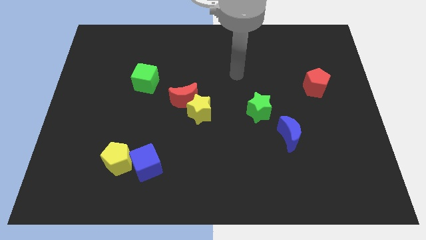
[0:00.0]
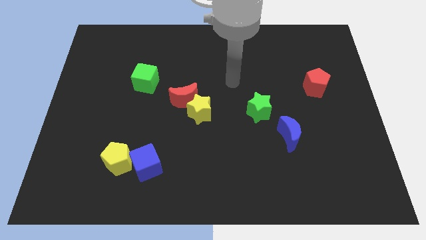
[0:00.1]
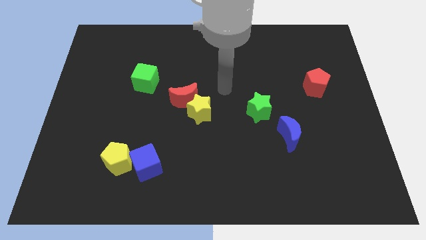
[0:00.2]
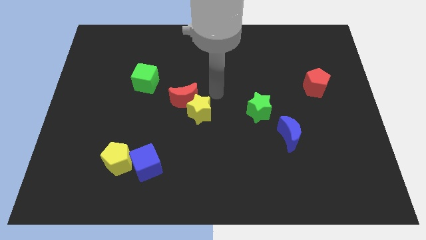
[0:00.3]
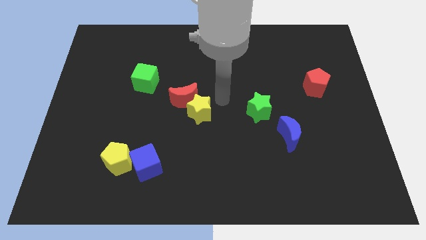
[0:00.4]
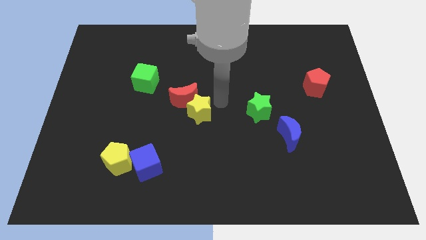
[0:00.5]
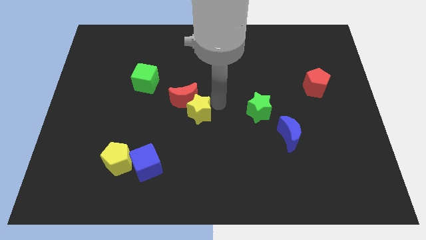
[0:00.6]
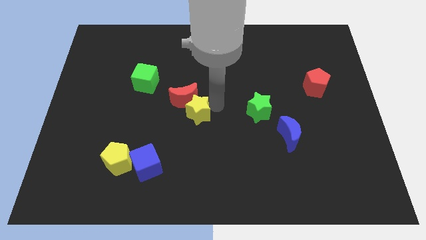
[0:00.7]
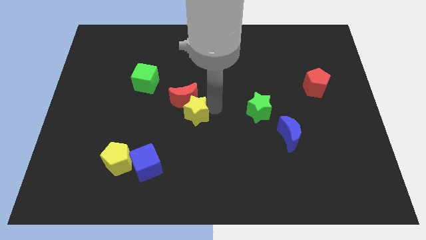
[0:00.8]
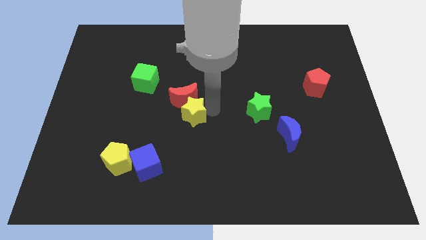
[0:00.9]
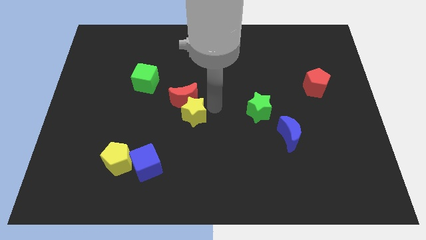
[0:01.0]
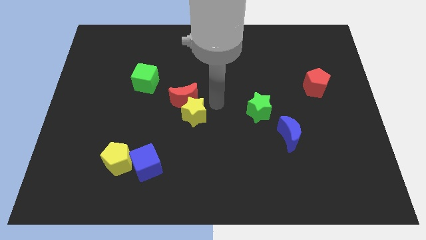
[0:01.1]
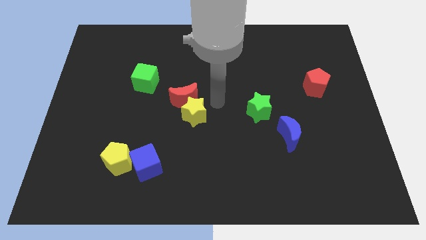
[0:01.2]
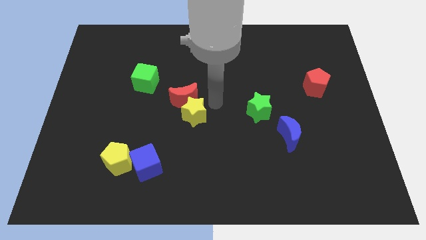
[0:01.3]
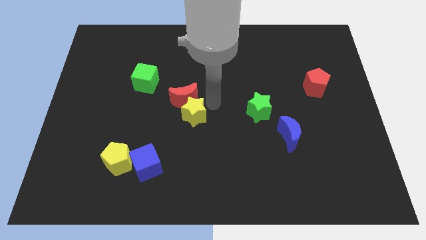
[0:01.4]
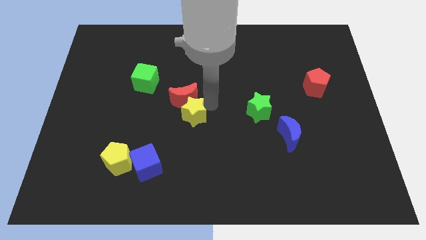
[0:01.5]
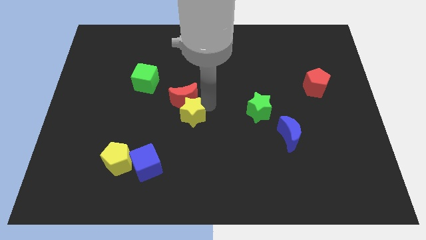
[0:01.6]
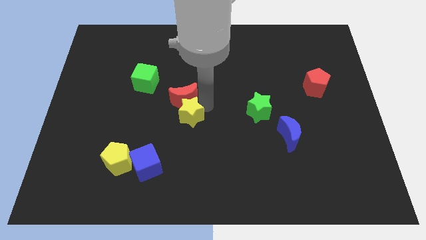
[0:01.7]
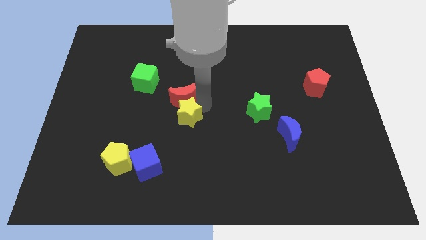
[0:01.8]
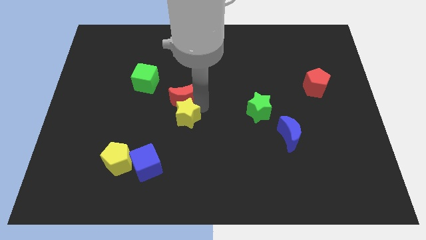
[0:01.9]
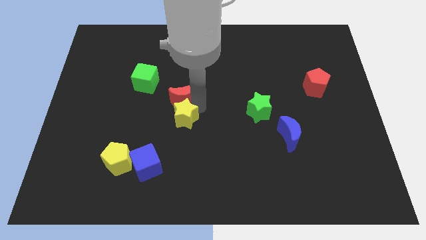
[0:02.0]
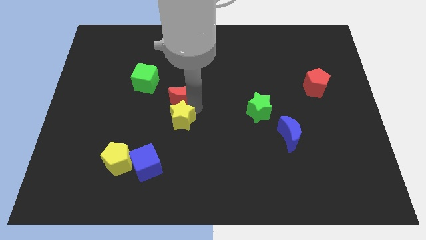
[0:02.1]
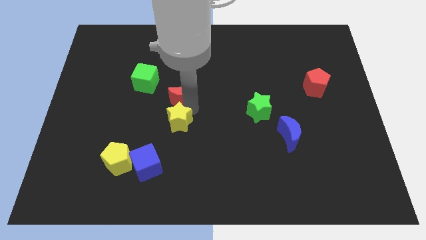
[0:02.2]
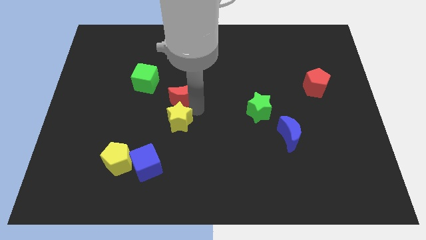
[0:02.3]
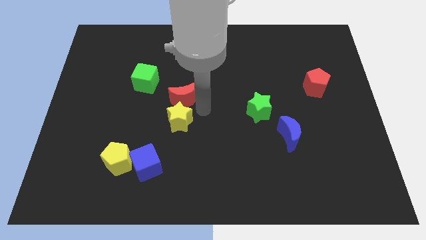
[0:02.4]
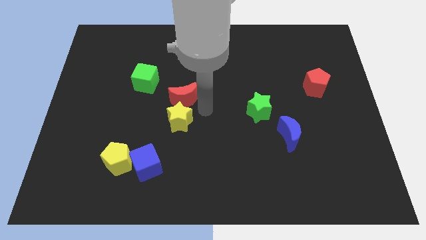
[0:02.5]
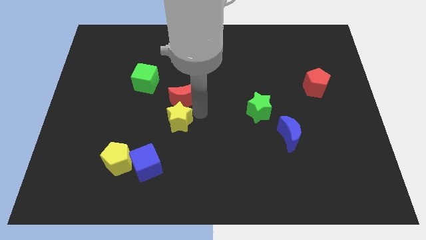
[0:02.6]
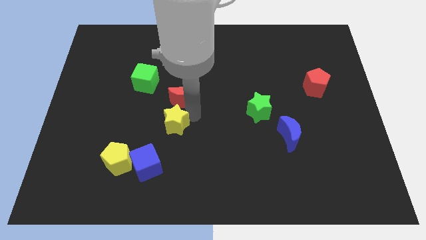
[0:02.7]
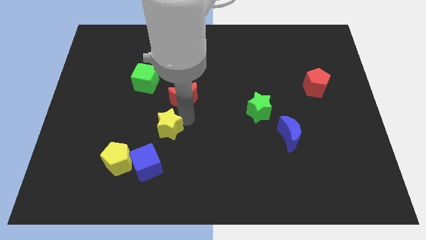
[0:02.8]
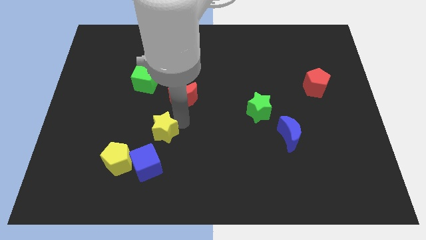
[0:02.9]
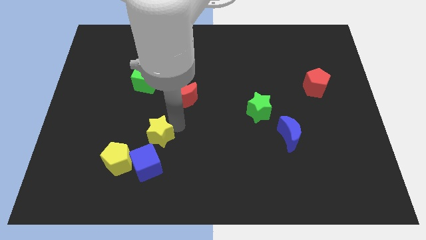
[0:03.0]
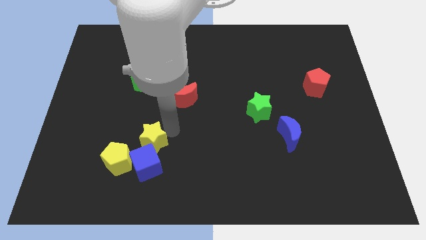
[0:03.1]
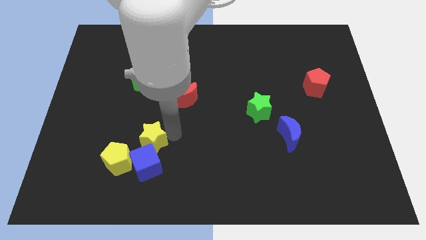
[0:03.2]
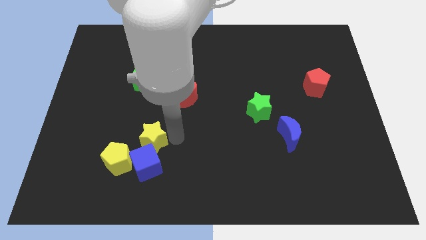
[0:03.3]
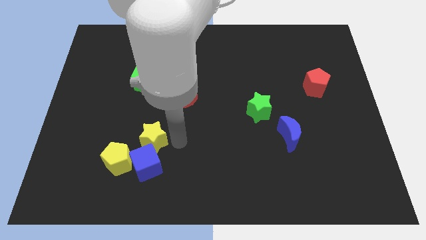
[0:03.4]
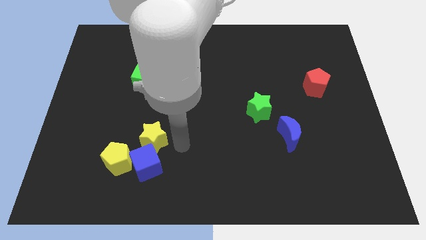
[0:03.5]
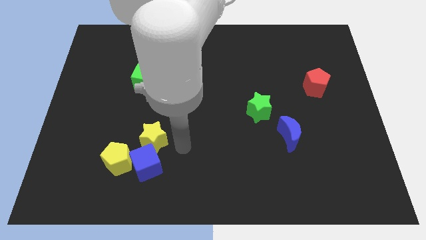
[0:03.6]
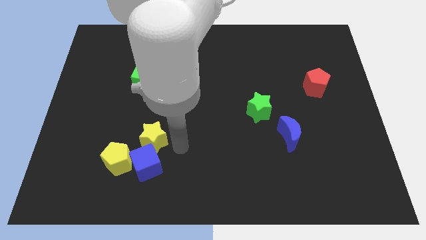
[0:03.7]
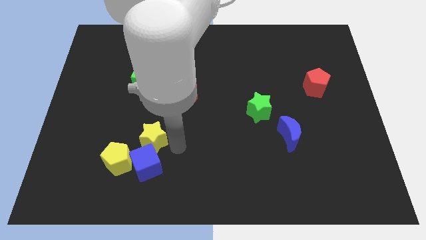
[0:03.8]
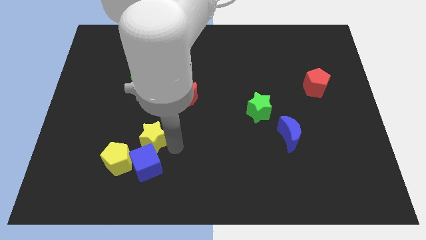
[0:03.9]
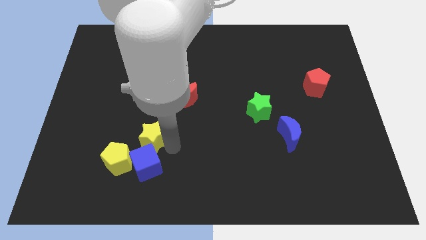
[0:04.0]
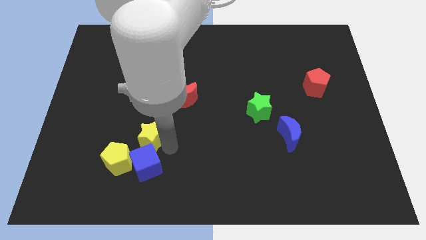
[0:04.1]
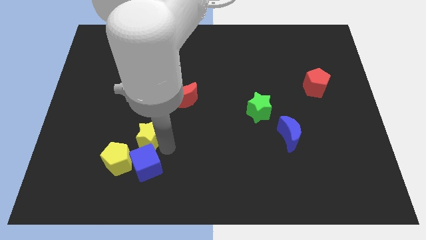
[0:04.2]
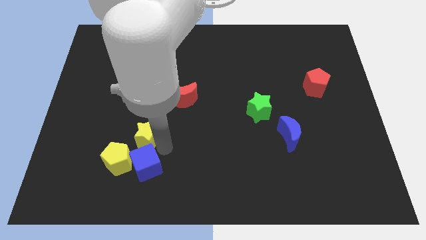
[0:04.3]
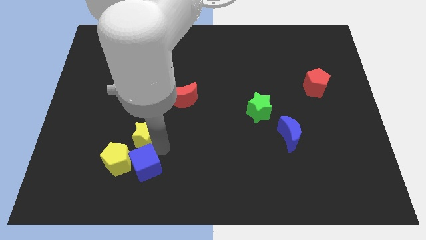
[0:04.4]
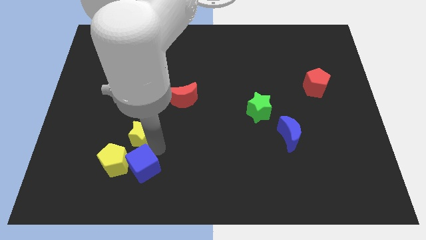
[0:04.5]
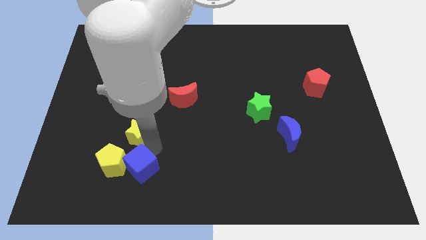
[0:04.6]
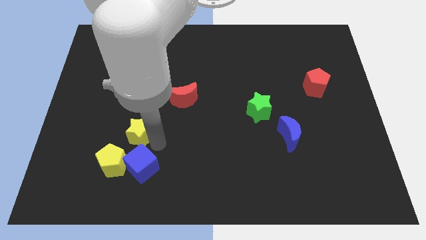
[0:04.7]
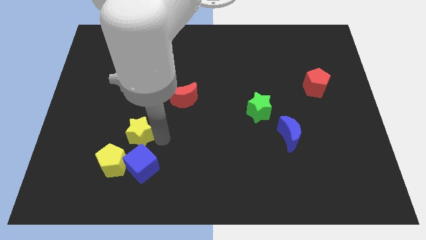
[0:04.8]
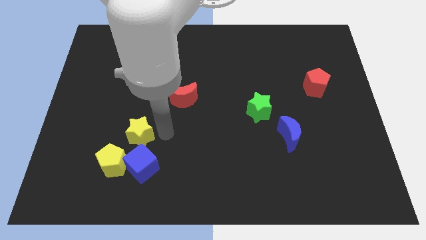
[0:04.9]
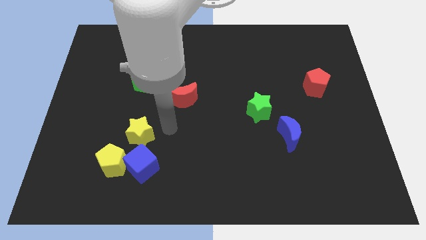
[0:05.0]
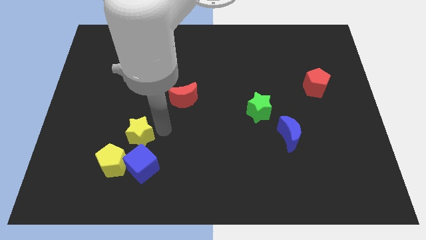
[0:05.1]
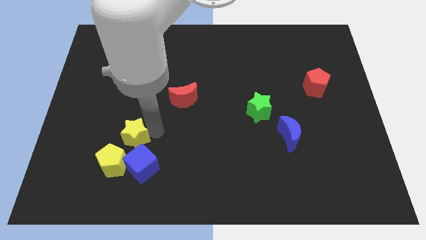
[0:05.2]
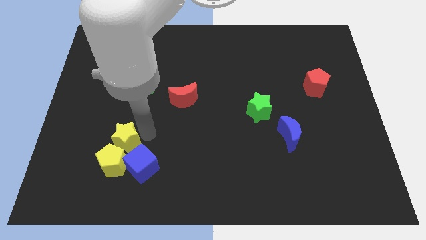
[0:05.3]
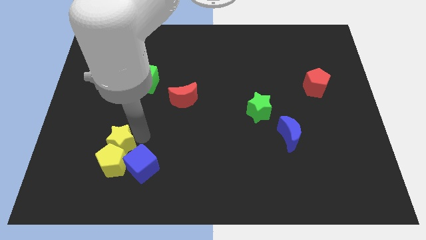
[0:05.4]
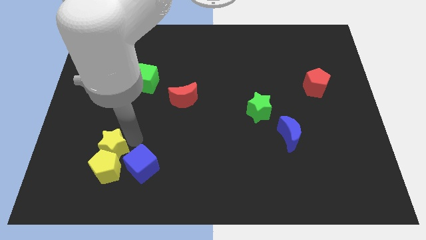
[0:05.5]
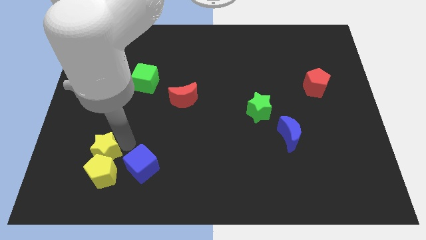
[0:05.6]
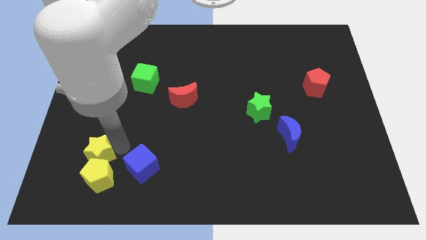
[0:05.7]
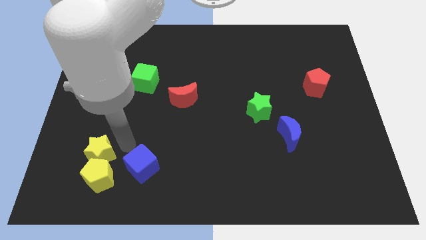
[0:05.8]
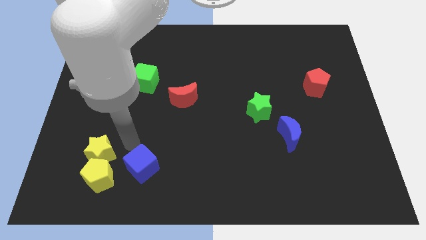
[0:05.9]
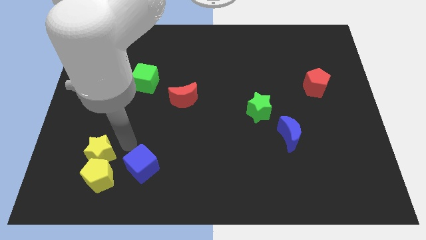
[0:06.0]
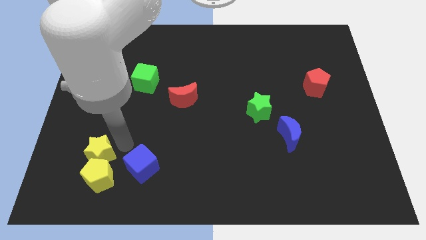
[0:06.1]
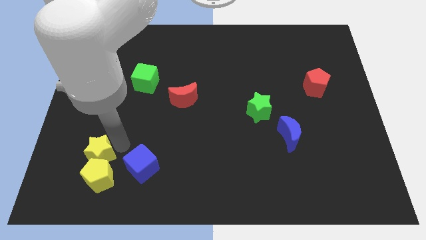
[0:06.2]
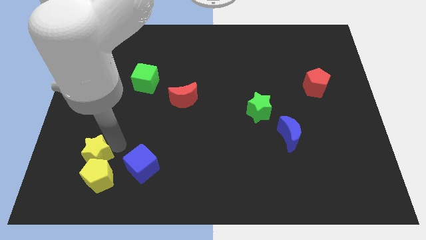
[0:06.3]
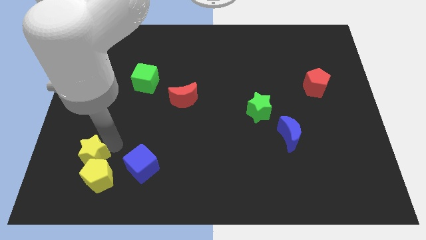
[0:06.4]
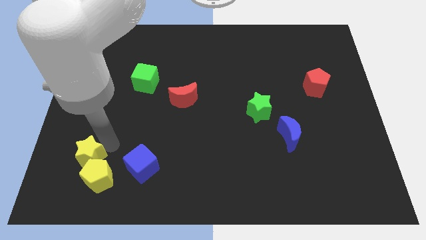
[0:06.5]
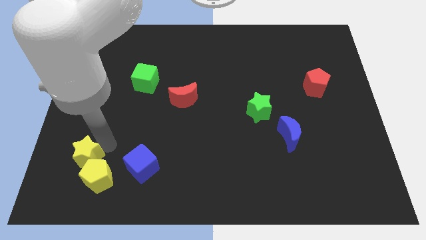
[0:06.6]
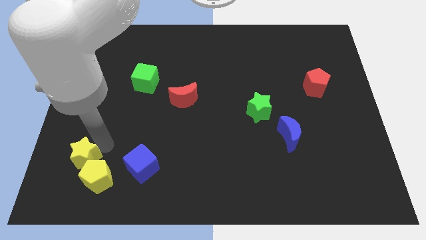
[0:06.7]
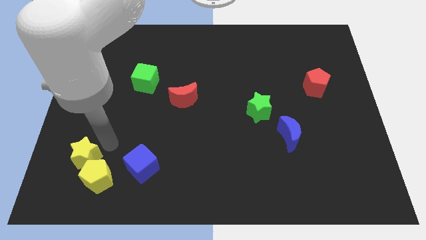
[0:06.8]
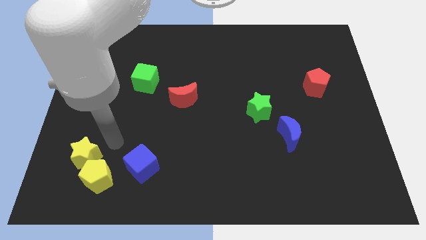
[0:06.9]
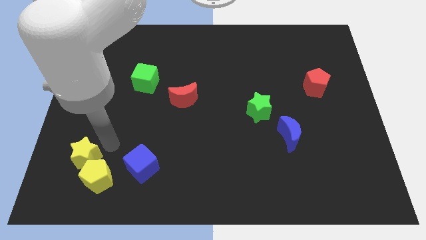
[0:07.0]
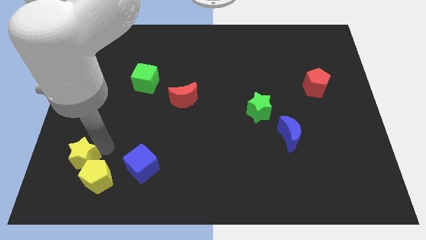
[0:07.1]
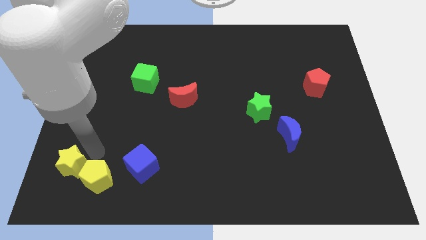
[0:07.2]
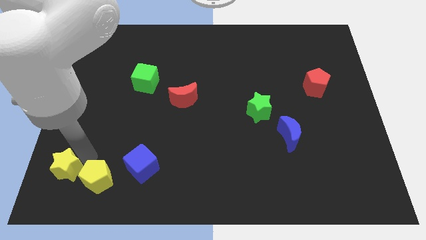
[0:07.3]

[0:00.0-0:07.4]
slide the yellow star to the bottom left corner
